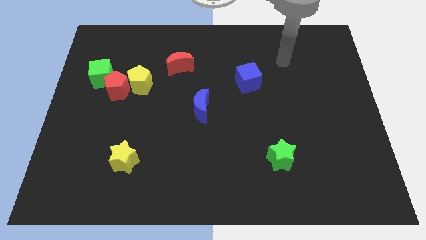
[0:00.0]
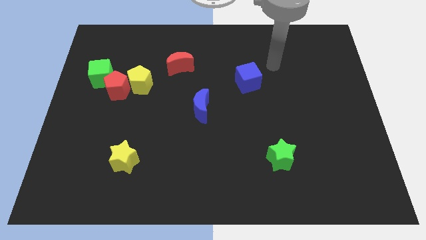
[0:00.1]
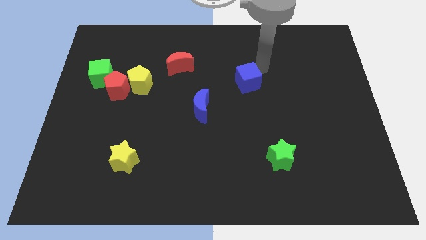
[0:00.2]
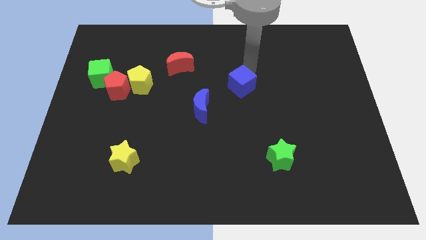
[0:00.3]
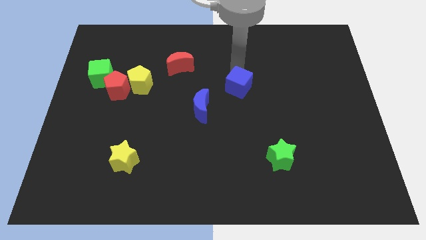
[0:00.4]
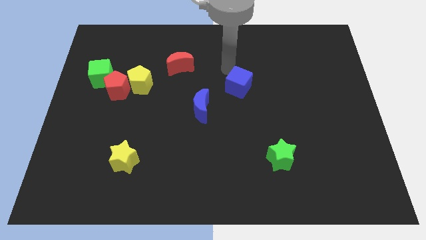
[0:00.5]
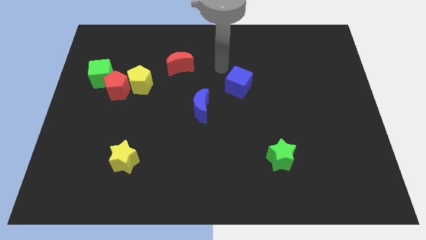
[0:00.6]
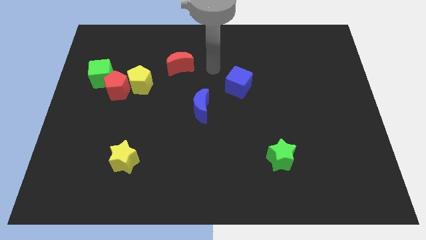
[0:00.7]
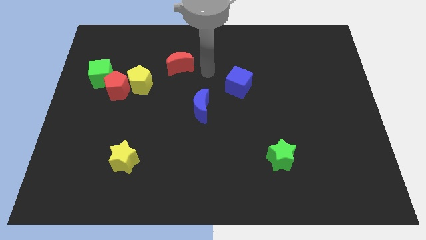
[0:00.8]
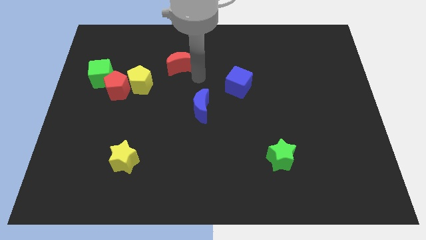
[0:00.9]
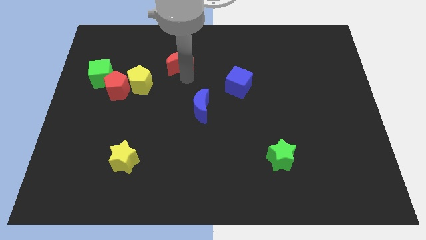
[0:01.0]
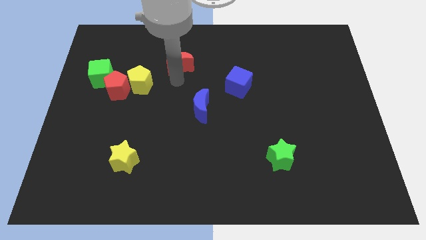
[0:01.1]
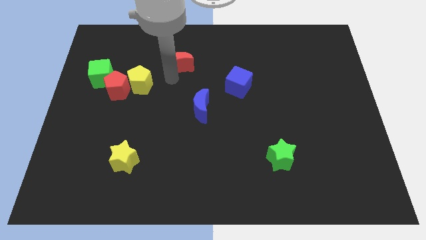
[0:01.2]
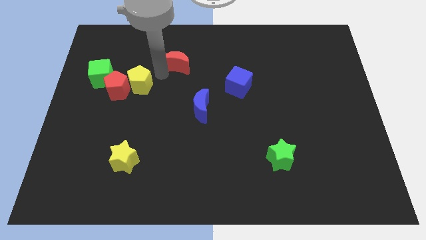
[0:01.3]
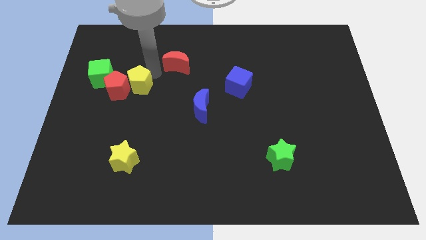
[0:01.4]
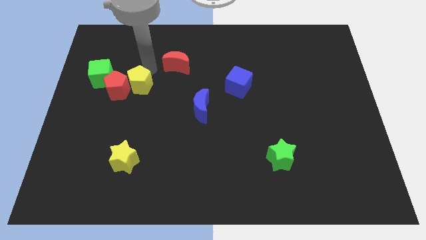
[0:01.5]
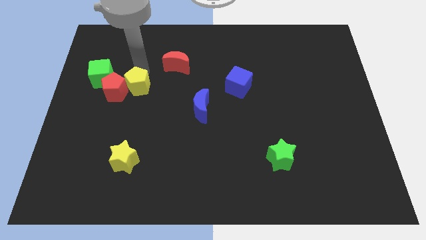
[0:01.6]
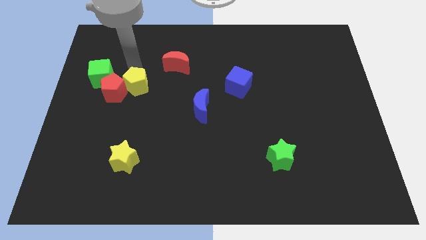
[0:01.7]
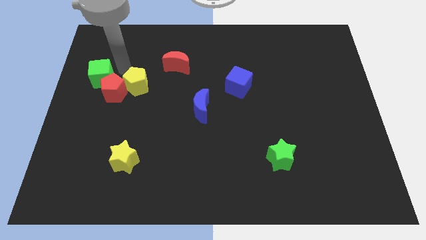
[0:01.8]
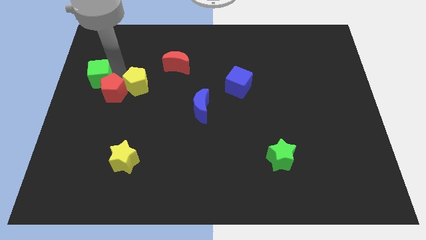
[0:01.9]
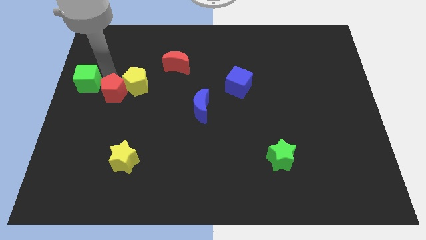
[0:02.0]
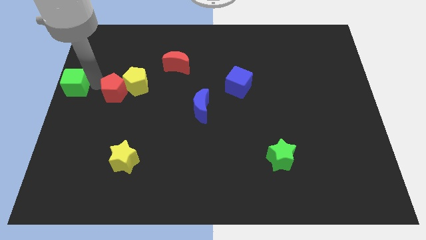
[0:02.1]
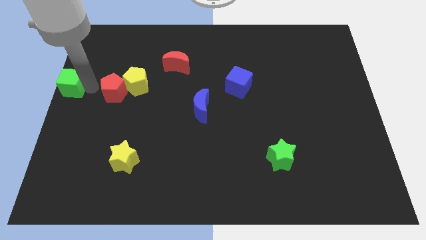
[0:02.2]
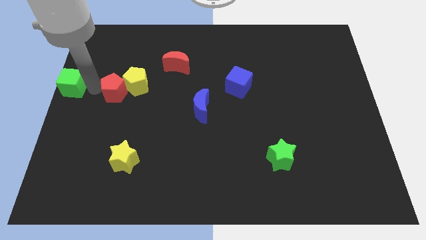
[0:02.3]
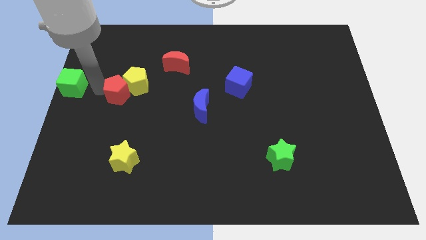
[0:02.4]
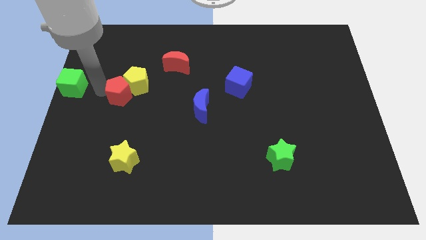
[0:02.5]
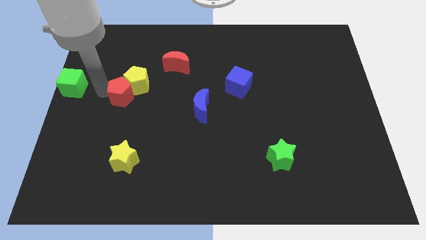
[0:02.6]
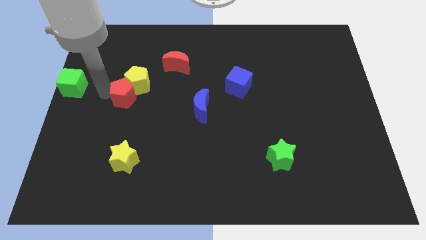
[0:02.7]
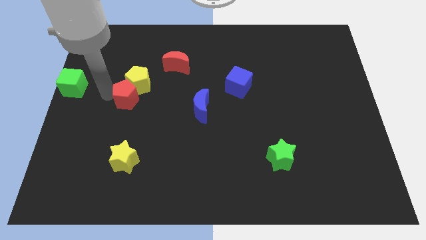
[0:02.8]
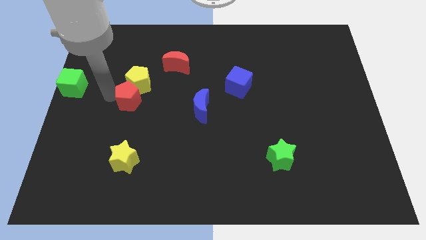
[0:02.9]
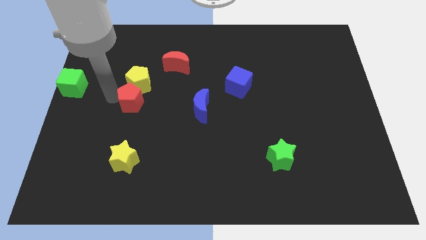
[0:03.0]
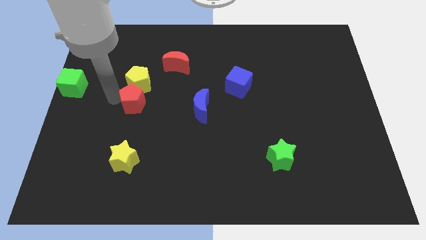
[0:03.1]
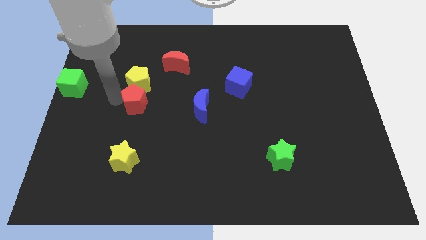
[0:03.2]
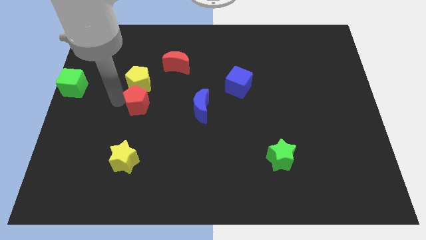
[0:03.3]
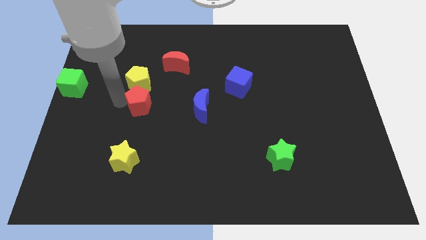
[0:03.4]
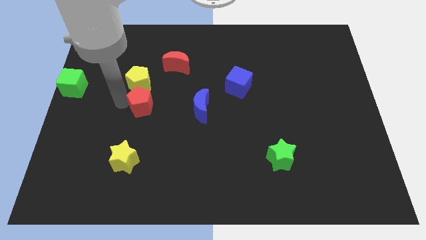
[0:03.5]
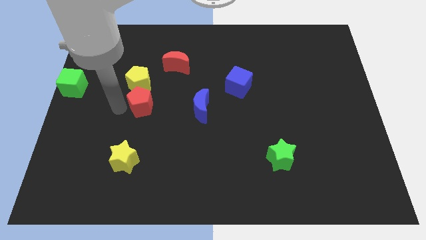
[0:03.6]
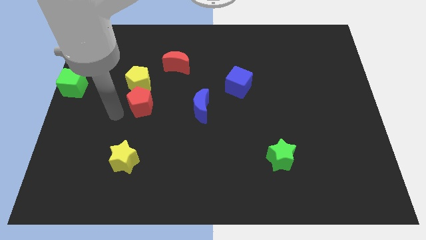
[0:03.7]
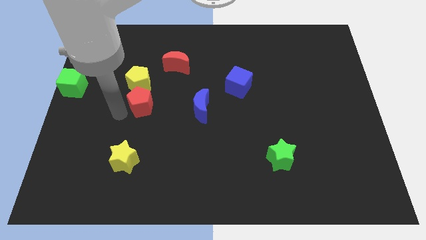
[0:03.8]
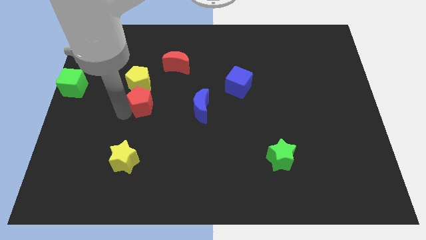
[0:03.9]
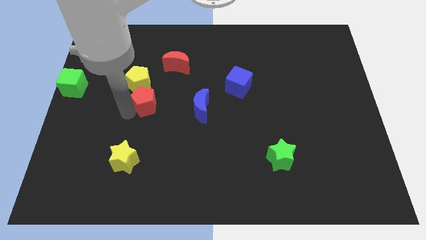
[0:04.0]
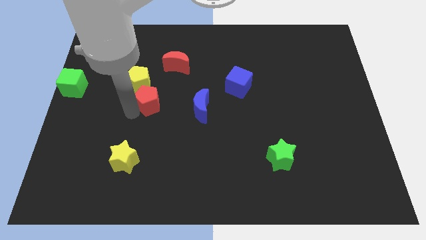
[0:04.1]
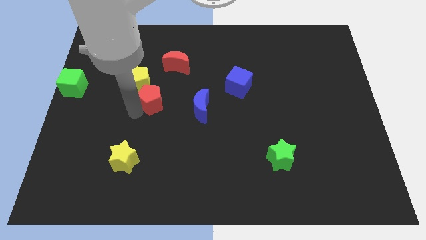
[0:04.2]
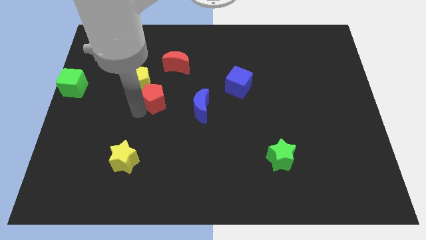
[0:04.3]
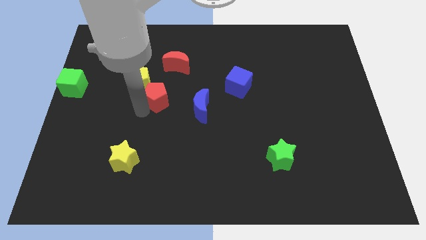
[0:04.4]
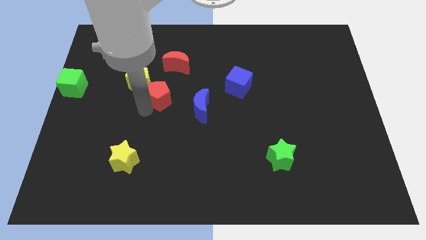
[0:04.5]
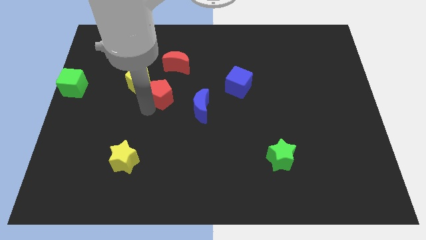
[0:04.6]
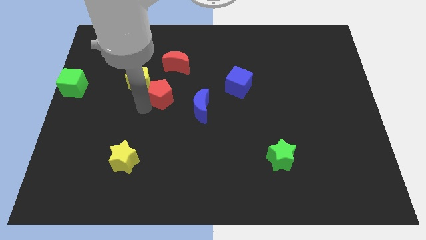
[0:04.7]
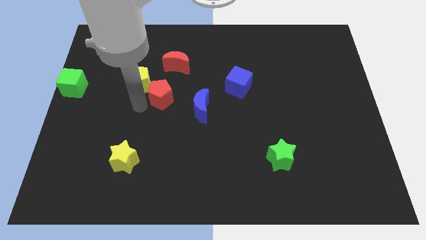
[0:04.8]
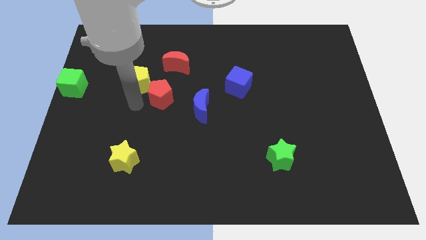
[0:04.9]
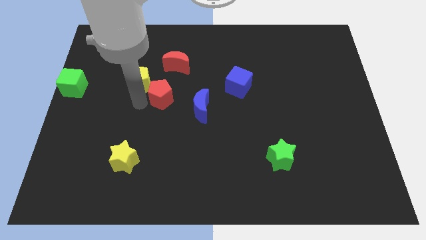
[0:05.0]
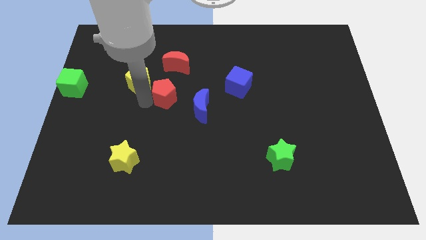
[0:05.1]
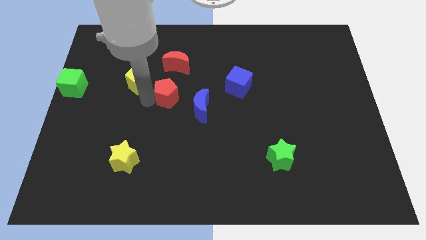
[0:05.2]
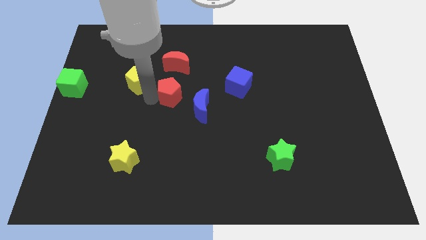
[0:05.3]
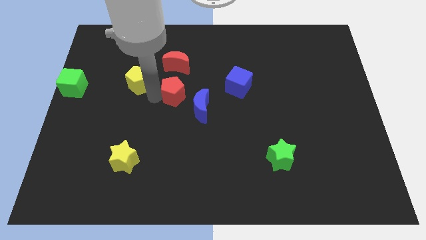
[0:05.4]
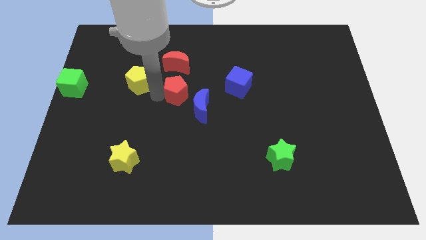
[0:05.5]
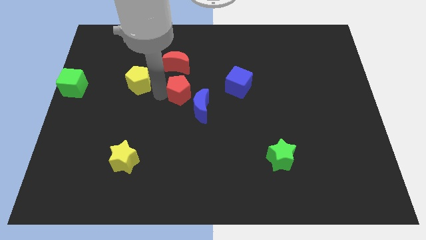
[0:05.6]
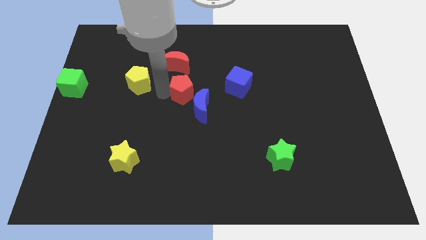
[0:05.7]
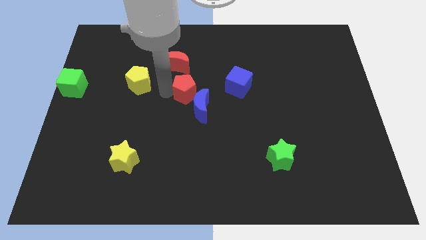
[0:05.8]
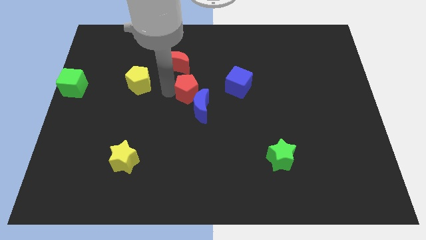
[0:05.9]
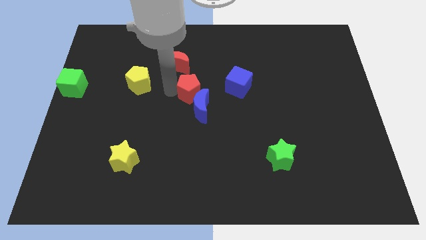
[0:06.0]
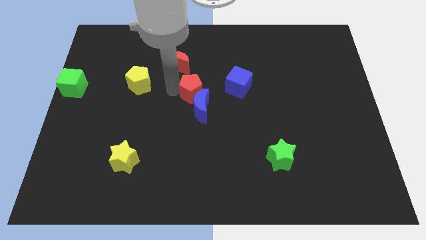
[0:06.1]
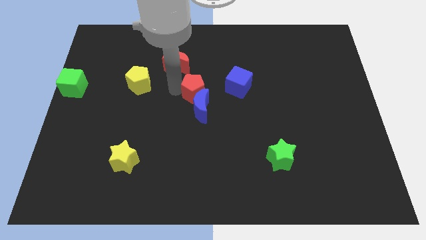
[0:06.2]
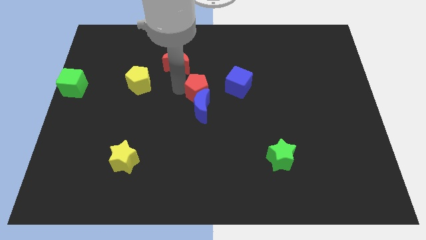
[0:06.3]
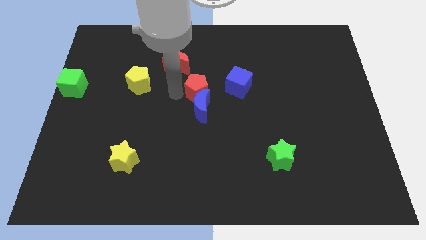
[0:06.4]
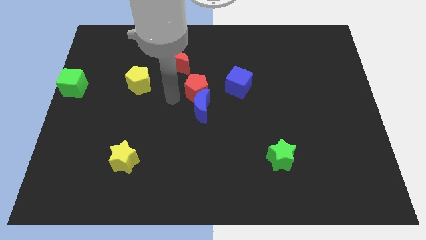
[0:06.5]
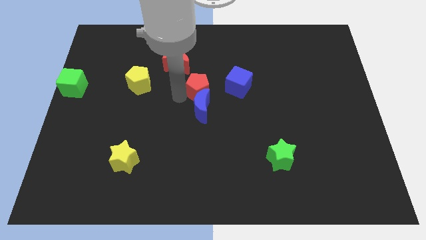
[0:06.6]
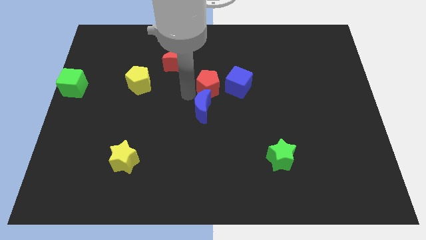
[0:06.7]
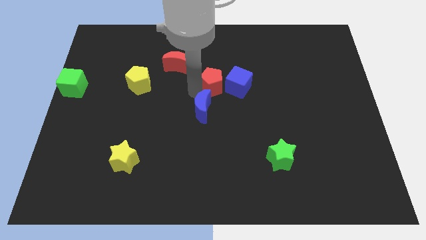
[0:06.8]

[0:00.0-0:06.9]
move the red pentagon close to the blue cube
